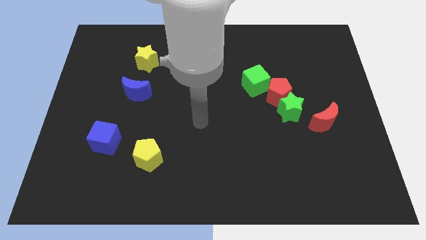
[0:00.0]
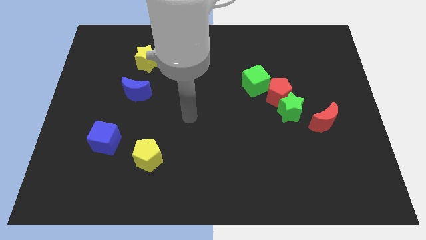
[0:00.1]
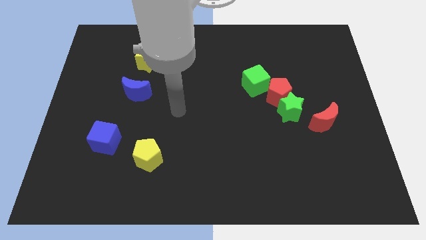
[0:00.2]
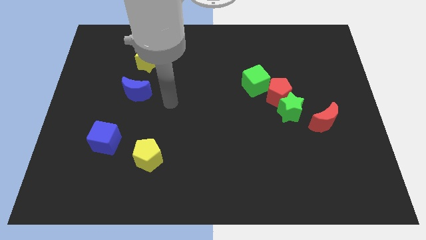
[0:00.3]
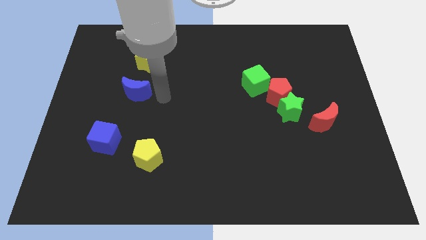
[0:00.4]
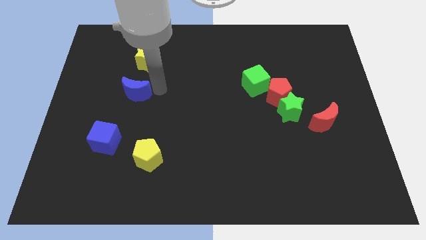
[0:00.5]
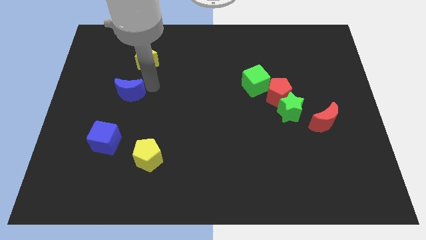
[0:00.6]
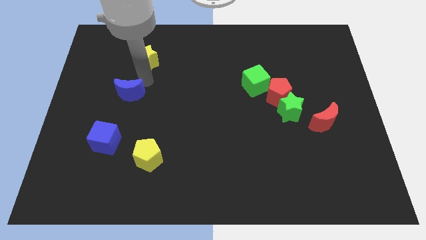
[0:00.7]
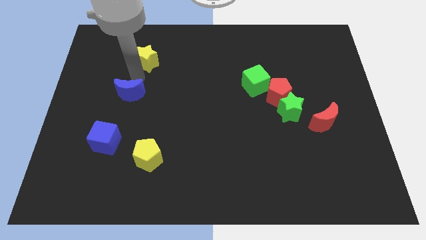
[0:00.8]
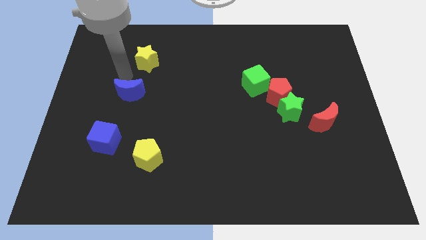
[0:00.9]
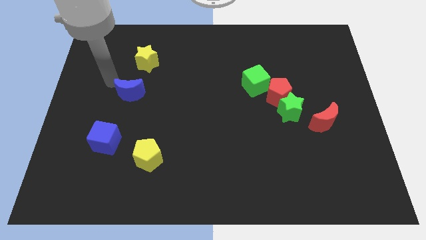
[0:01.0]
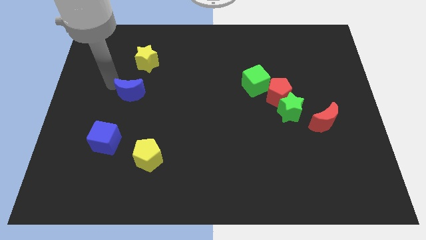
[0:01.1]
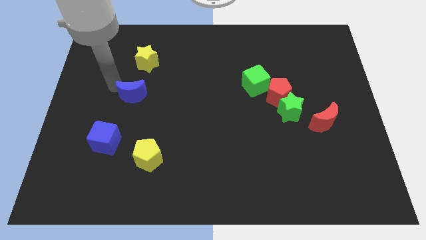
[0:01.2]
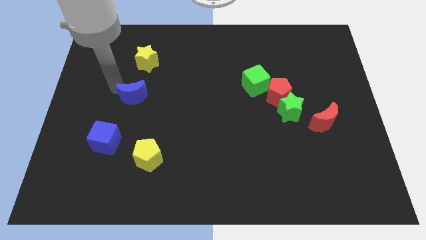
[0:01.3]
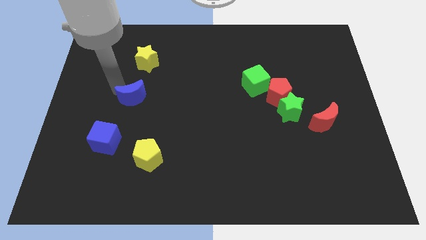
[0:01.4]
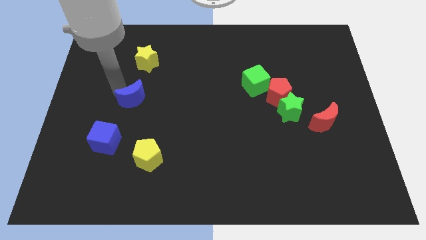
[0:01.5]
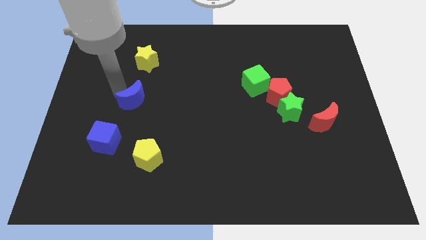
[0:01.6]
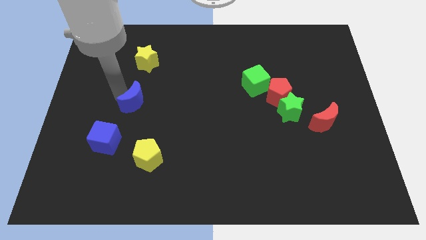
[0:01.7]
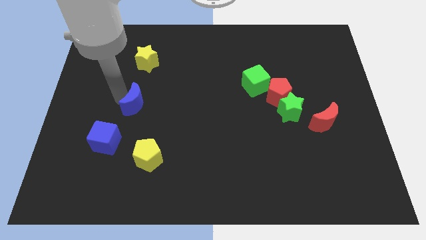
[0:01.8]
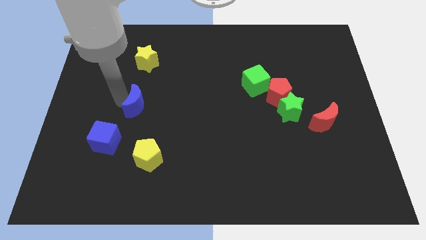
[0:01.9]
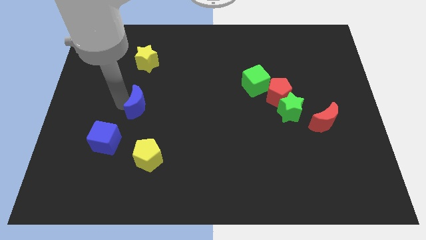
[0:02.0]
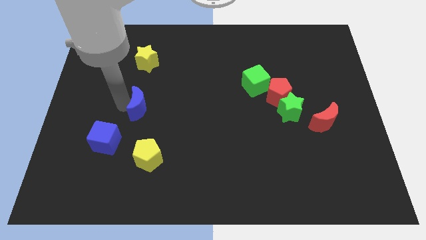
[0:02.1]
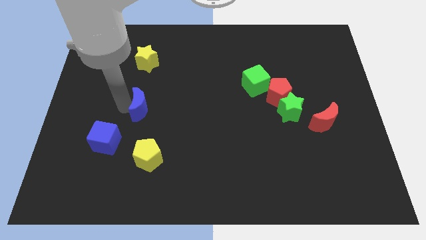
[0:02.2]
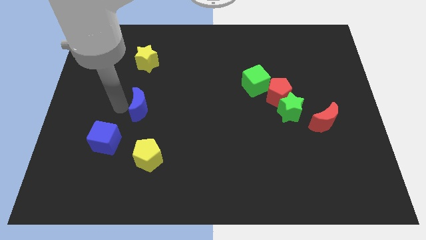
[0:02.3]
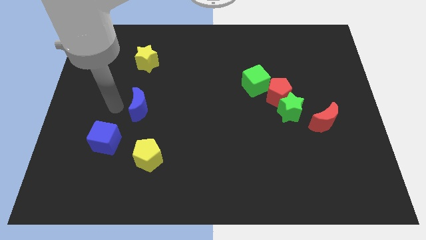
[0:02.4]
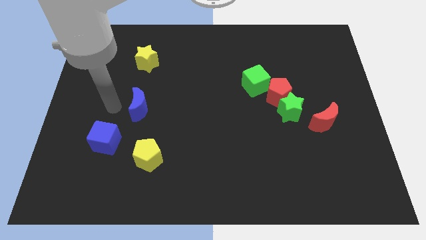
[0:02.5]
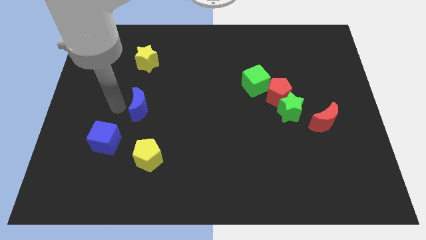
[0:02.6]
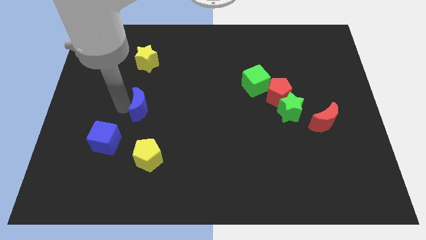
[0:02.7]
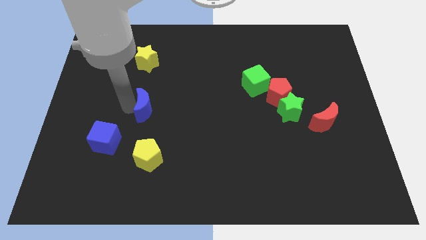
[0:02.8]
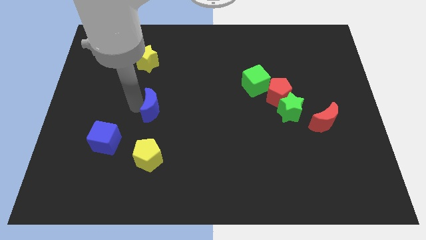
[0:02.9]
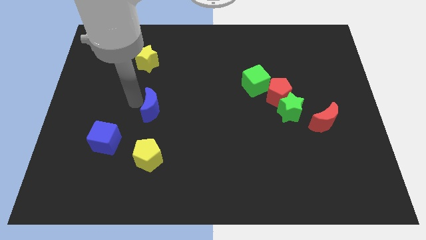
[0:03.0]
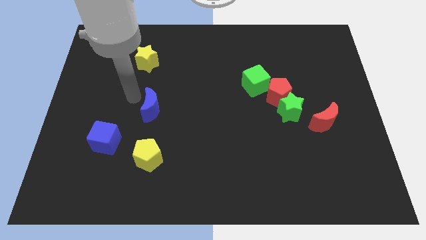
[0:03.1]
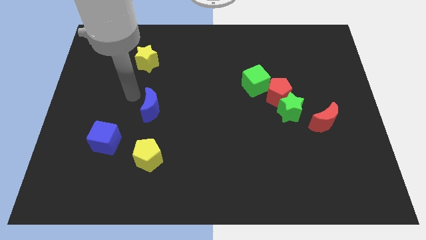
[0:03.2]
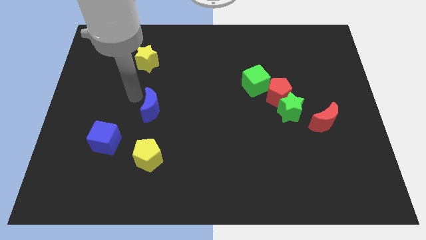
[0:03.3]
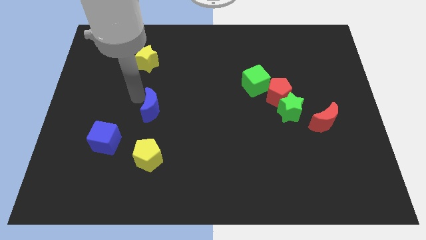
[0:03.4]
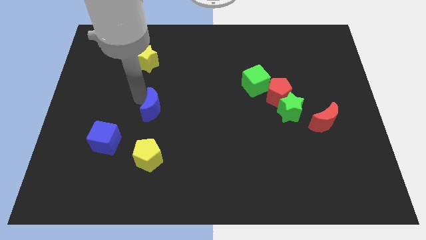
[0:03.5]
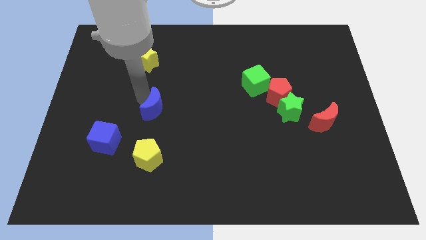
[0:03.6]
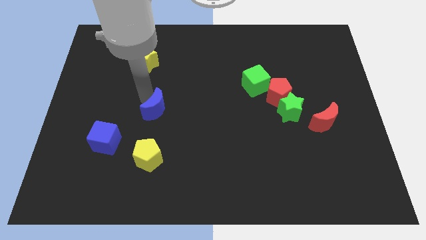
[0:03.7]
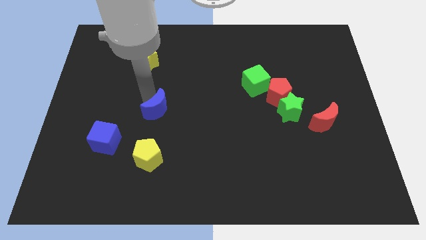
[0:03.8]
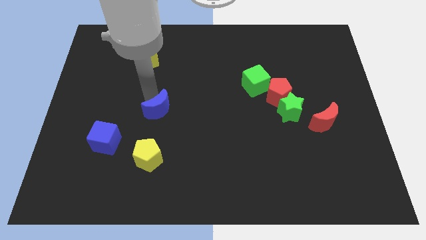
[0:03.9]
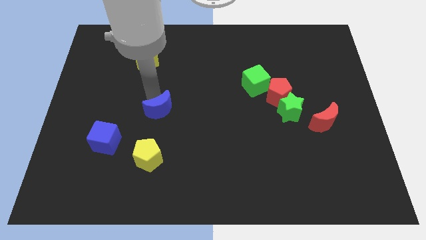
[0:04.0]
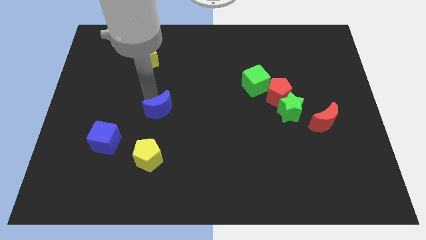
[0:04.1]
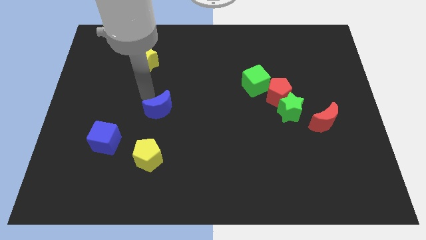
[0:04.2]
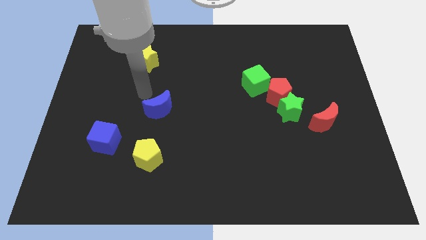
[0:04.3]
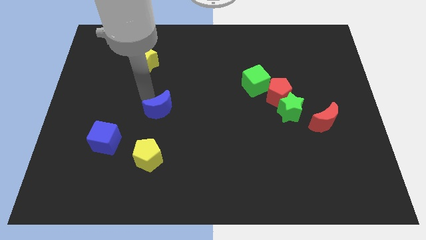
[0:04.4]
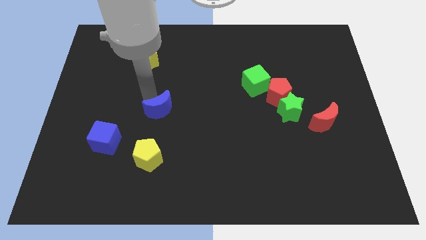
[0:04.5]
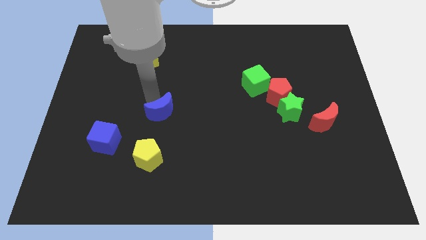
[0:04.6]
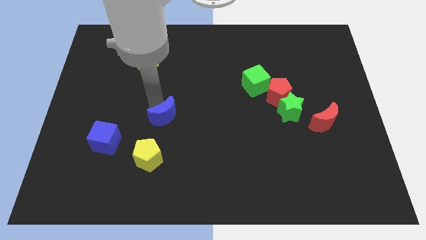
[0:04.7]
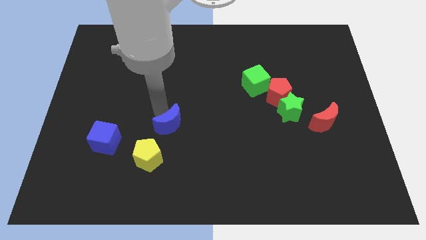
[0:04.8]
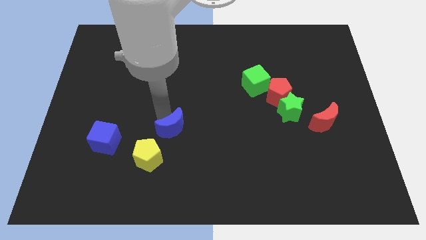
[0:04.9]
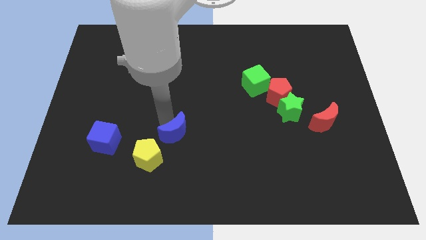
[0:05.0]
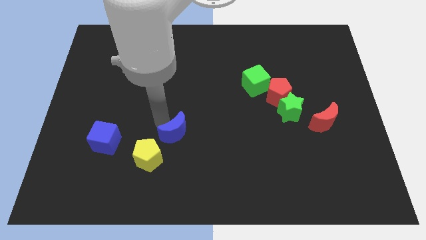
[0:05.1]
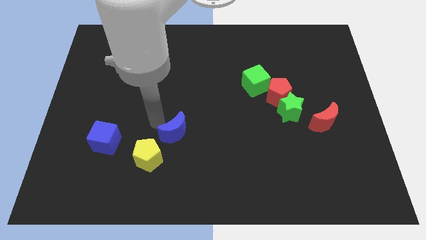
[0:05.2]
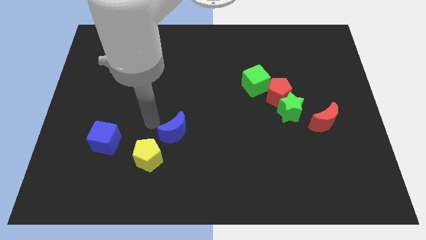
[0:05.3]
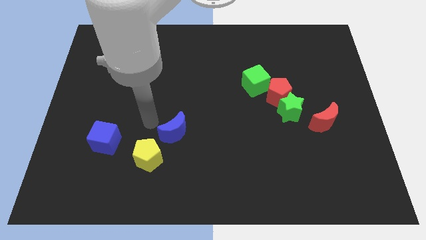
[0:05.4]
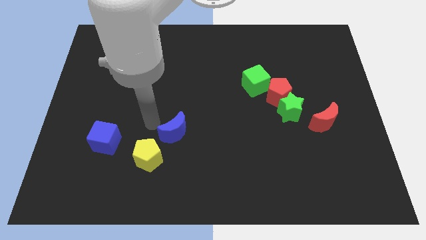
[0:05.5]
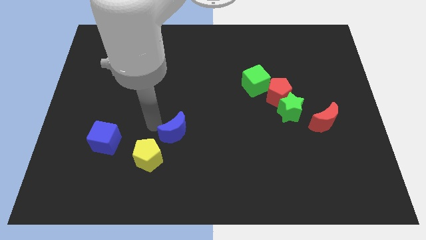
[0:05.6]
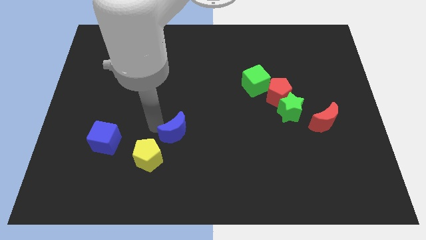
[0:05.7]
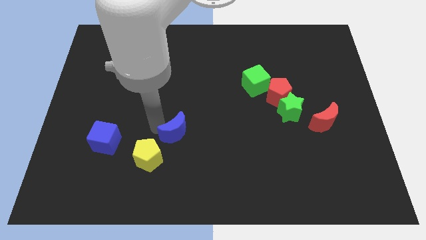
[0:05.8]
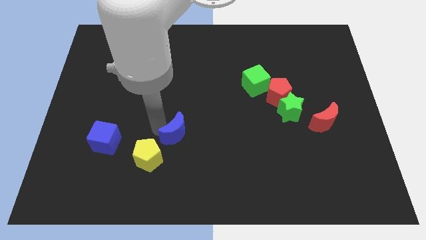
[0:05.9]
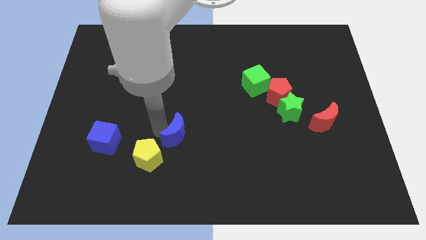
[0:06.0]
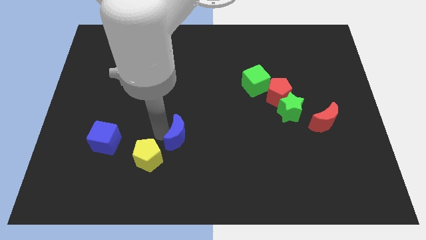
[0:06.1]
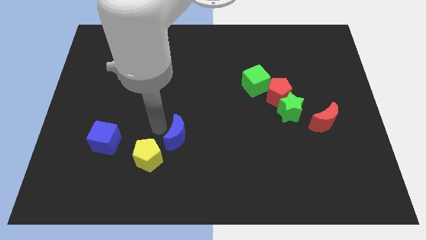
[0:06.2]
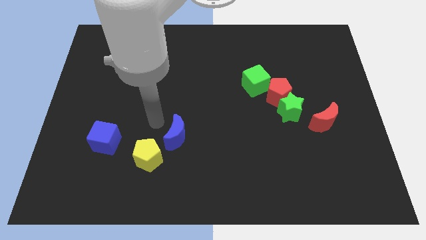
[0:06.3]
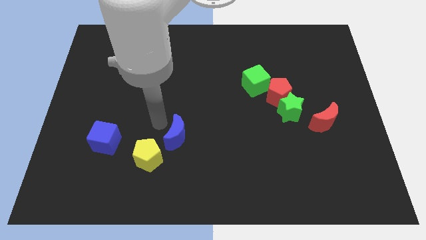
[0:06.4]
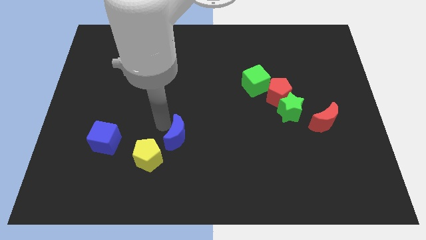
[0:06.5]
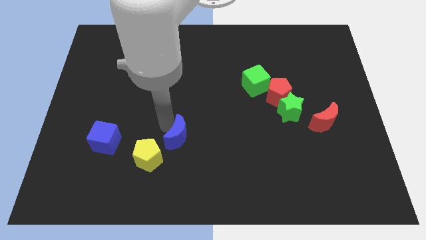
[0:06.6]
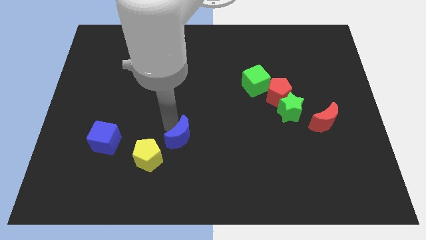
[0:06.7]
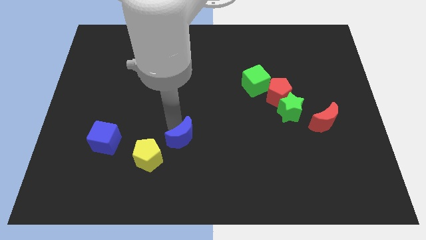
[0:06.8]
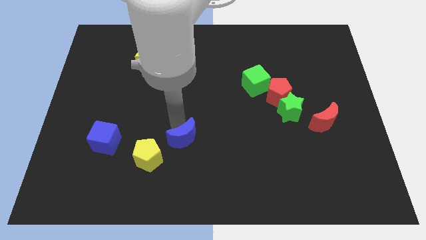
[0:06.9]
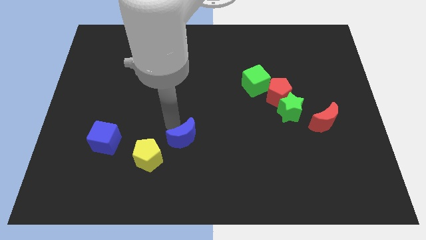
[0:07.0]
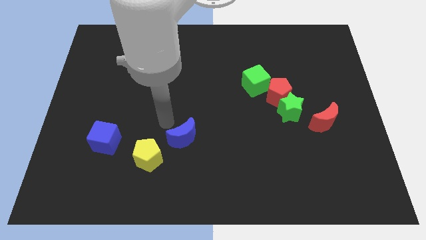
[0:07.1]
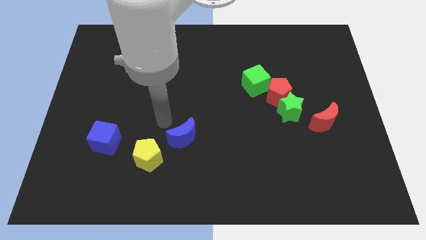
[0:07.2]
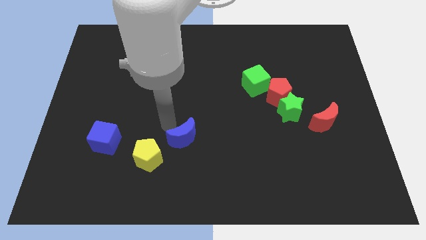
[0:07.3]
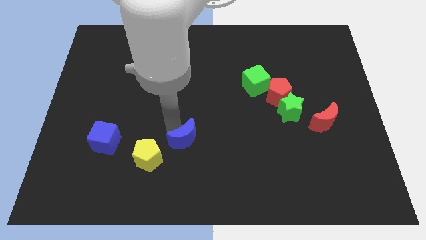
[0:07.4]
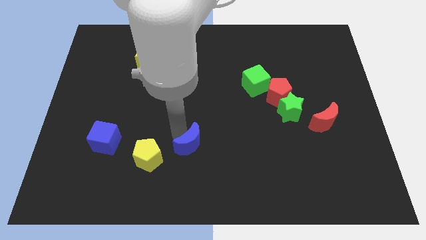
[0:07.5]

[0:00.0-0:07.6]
move the blue moon down and to the right

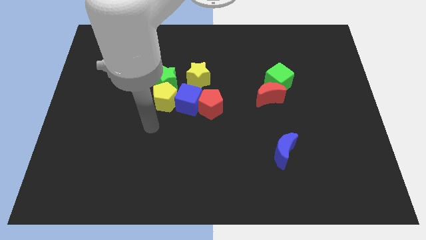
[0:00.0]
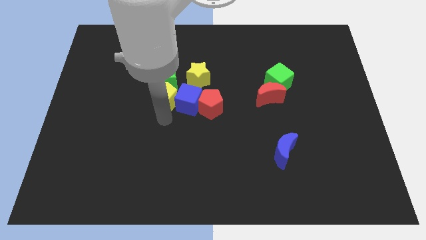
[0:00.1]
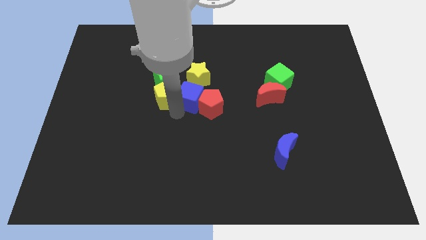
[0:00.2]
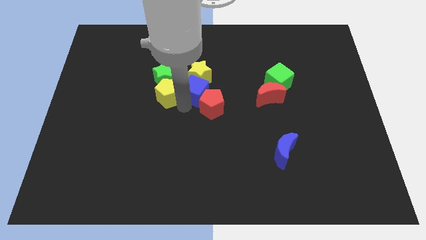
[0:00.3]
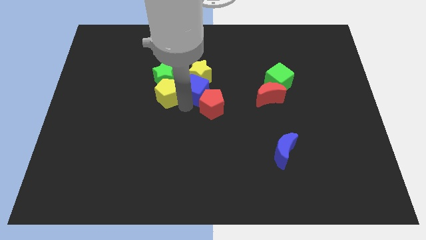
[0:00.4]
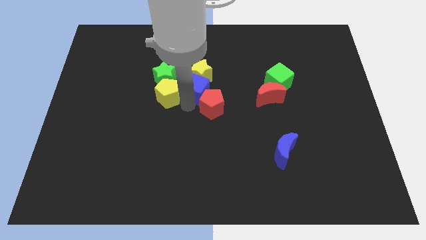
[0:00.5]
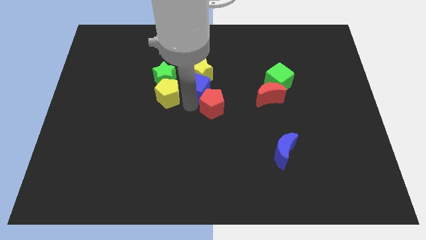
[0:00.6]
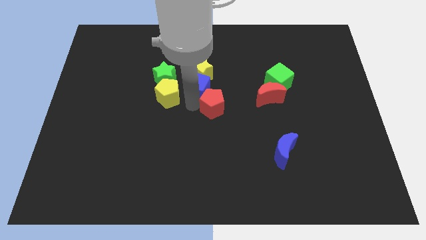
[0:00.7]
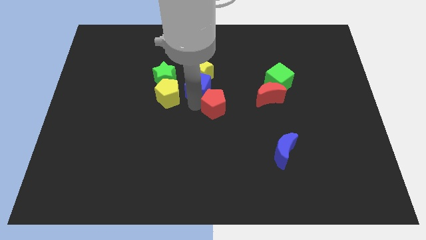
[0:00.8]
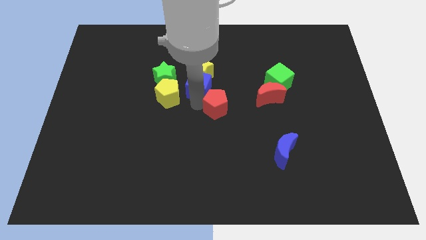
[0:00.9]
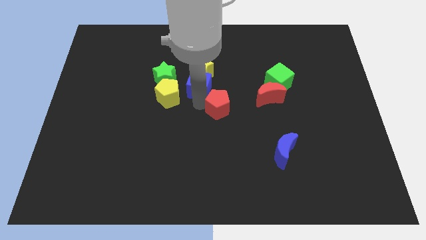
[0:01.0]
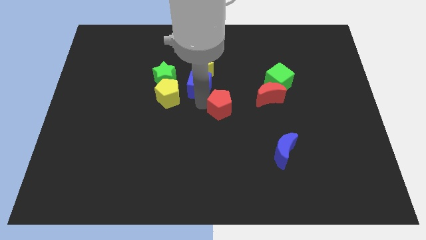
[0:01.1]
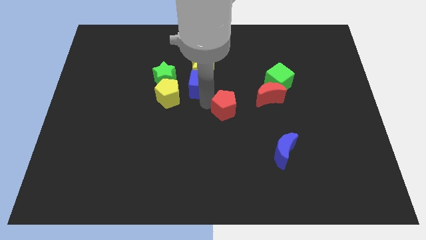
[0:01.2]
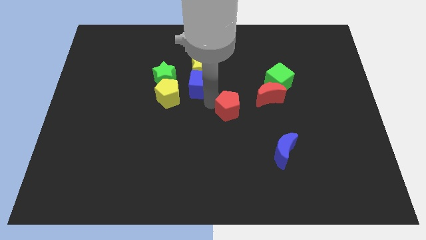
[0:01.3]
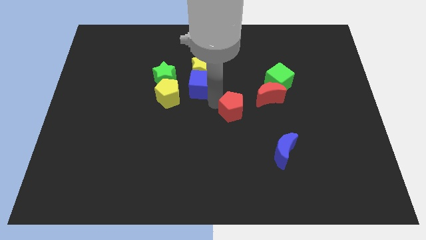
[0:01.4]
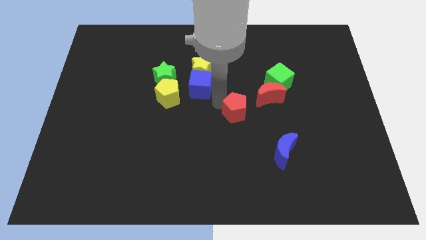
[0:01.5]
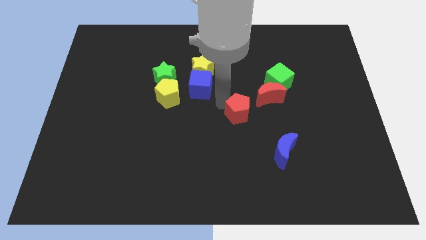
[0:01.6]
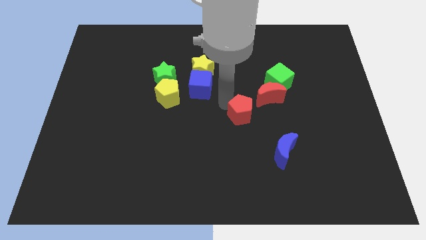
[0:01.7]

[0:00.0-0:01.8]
move the red pentagon a bit right
